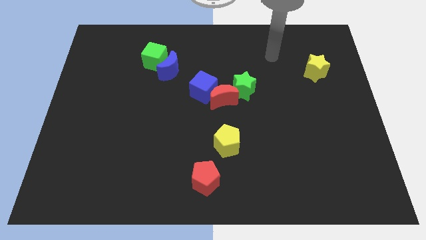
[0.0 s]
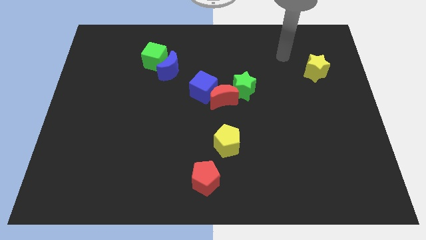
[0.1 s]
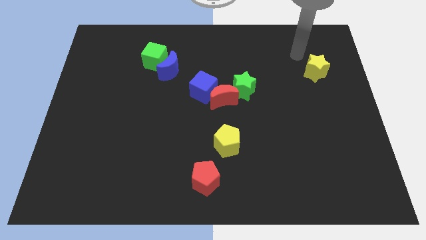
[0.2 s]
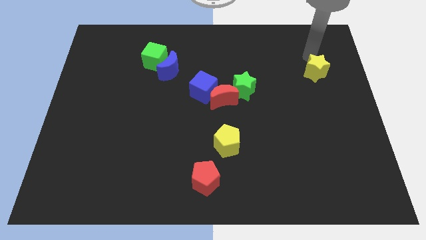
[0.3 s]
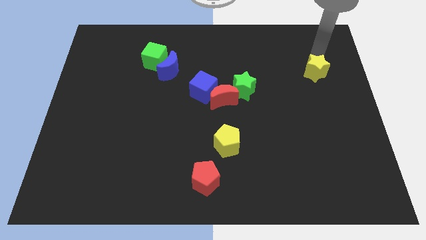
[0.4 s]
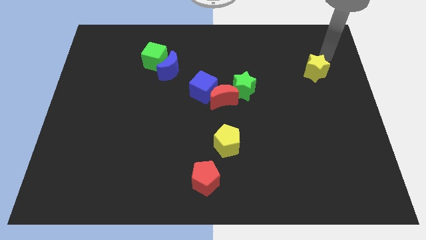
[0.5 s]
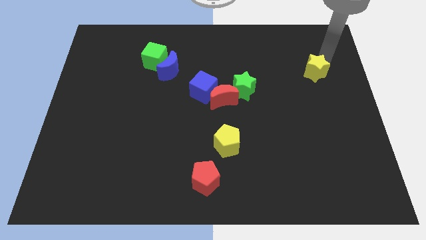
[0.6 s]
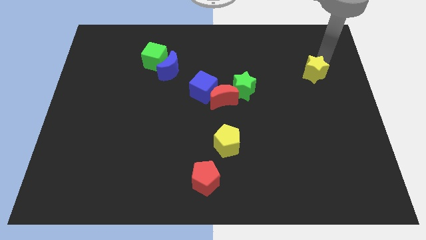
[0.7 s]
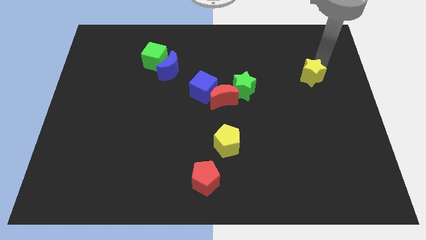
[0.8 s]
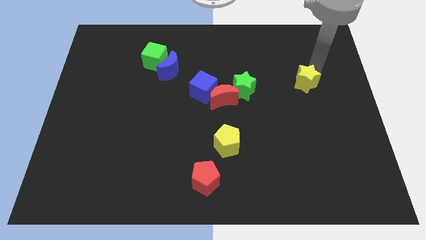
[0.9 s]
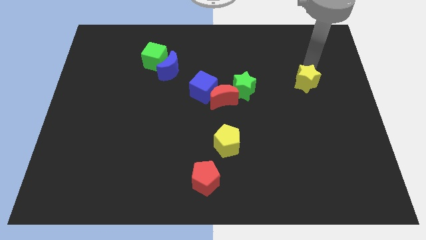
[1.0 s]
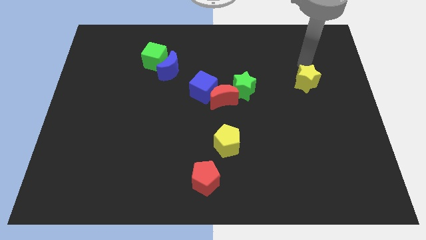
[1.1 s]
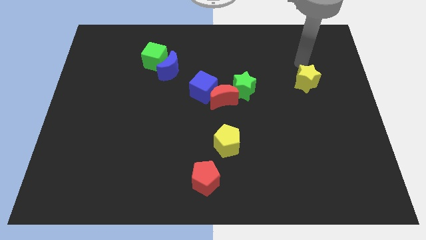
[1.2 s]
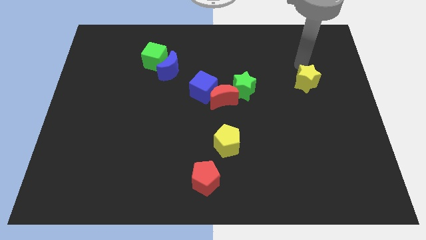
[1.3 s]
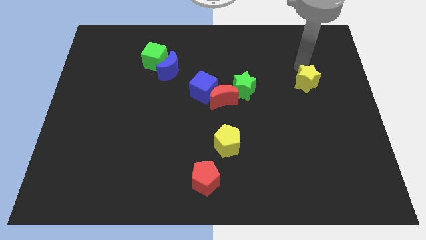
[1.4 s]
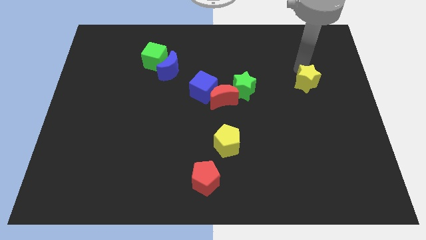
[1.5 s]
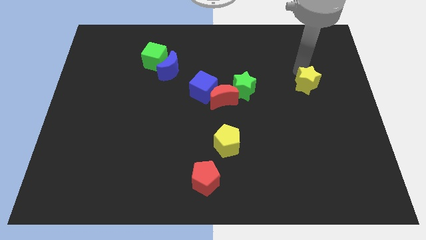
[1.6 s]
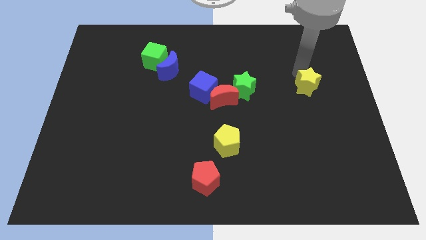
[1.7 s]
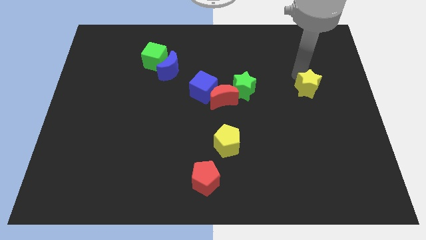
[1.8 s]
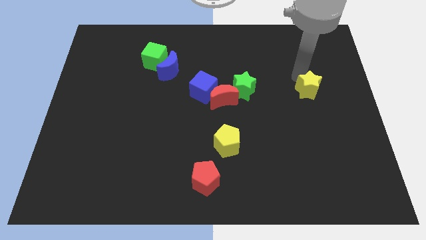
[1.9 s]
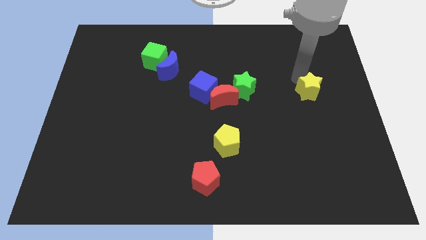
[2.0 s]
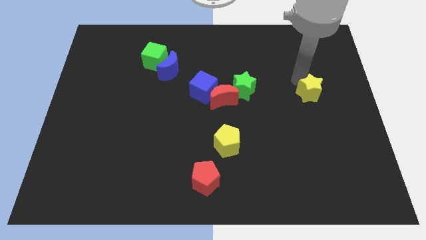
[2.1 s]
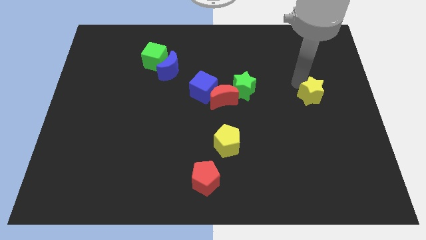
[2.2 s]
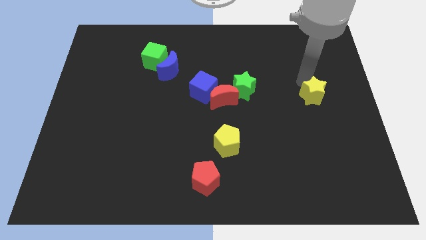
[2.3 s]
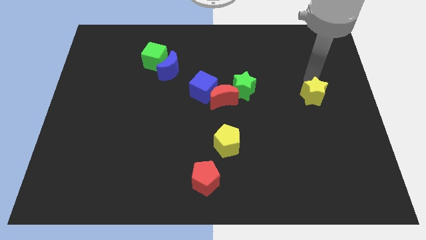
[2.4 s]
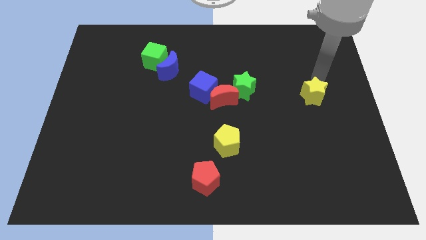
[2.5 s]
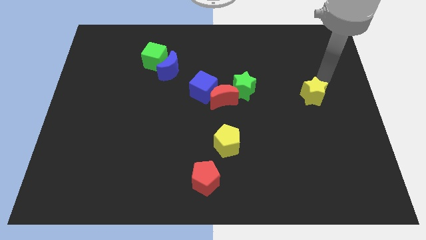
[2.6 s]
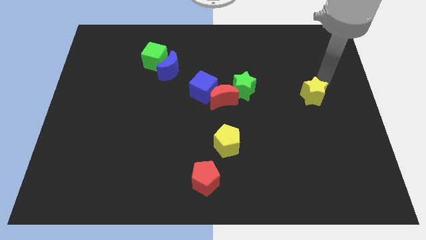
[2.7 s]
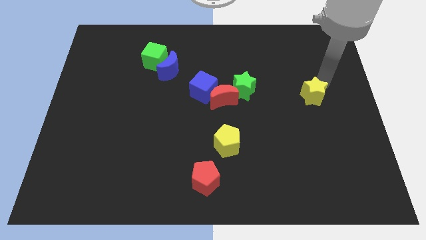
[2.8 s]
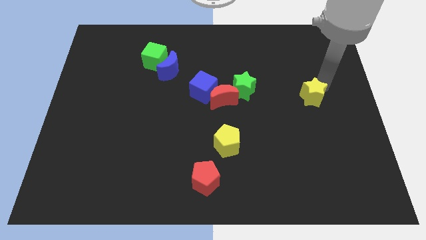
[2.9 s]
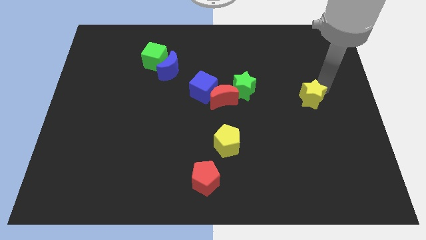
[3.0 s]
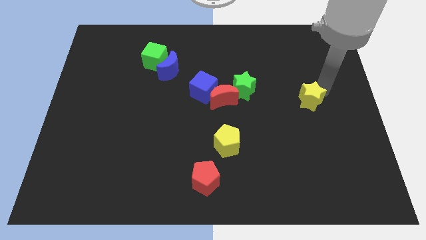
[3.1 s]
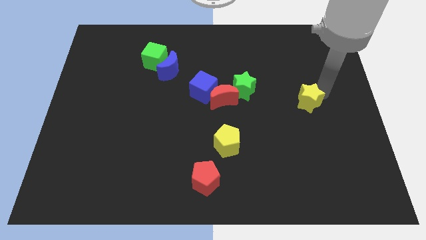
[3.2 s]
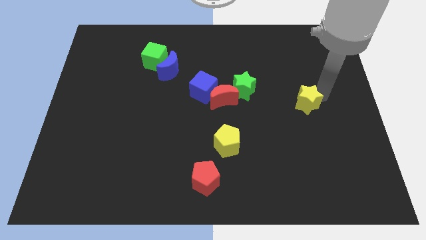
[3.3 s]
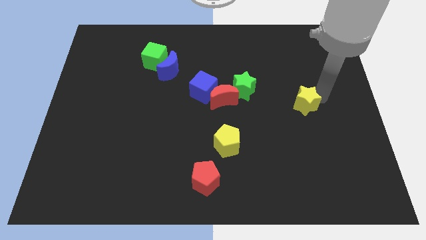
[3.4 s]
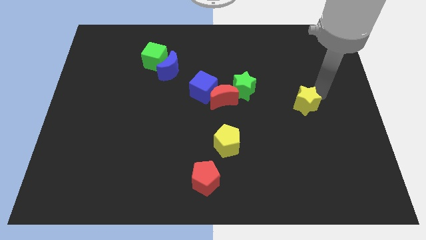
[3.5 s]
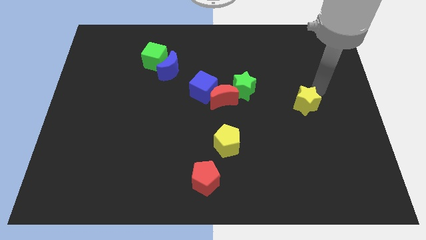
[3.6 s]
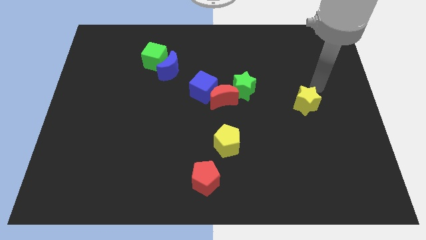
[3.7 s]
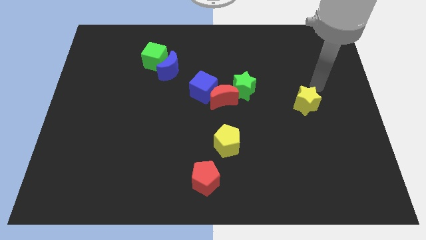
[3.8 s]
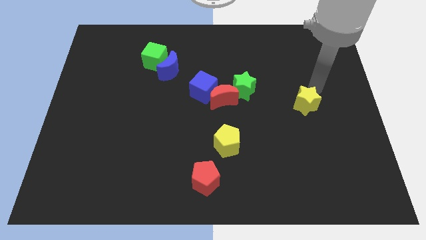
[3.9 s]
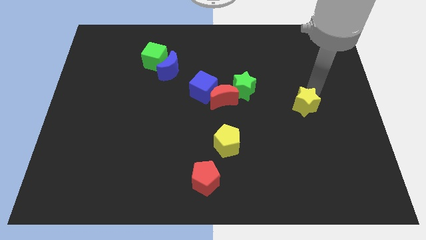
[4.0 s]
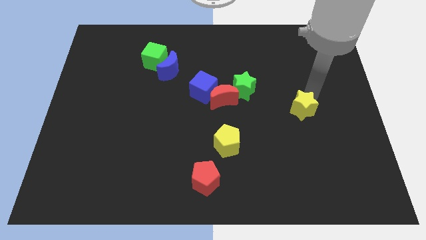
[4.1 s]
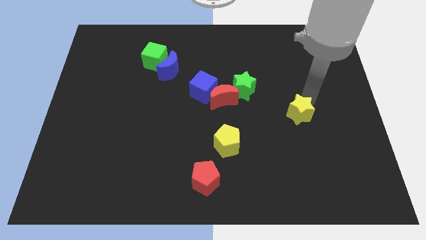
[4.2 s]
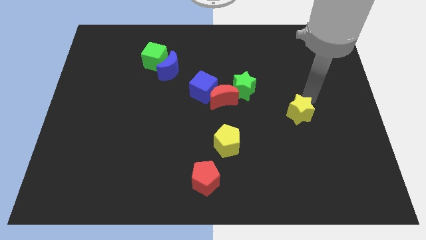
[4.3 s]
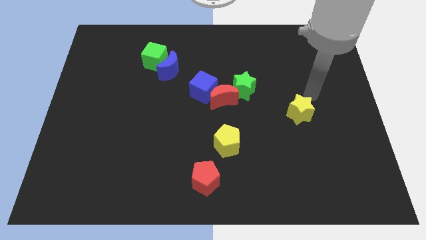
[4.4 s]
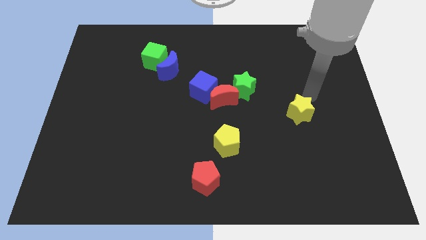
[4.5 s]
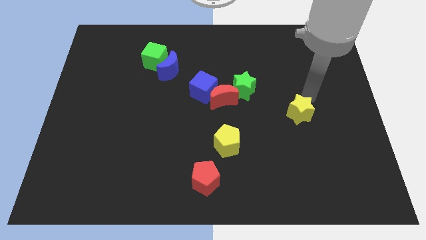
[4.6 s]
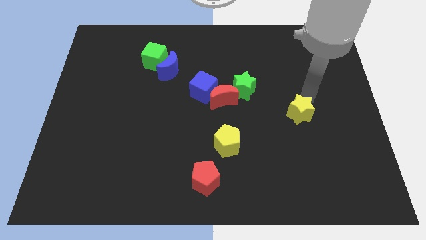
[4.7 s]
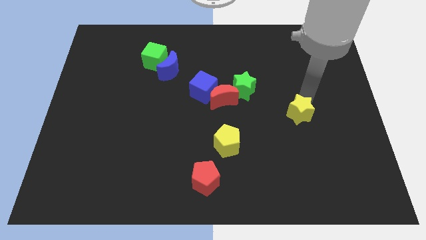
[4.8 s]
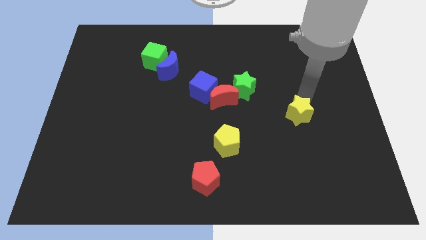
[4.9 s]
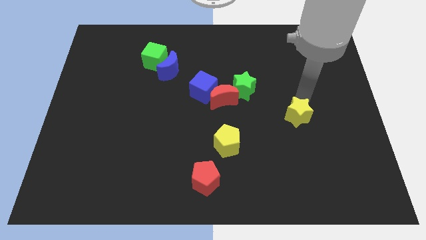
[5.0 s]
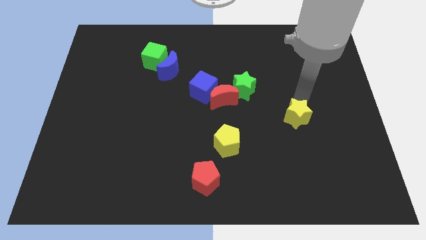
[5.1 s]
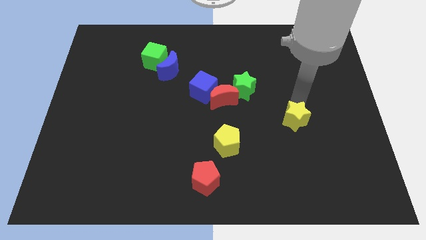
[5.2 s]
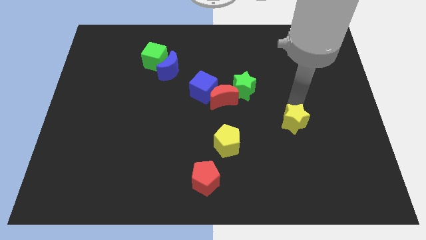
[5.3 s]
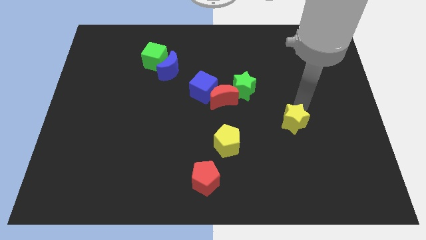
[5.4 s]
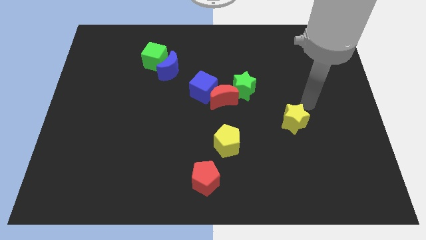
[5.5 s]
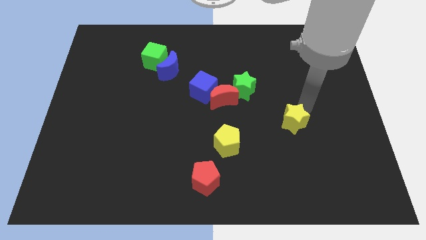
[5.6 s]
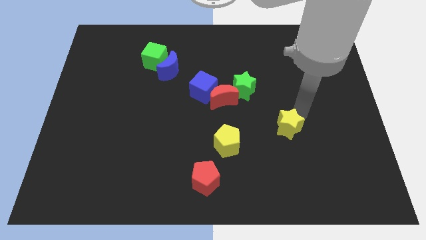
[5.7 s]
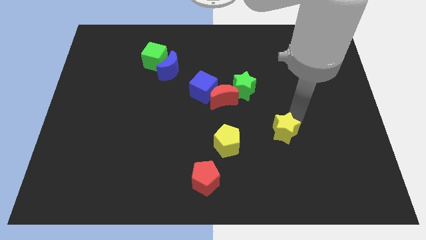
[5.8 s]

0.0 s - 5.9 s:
put the yellow star to the right side of the yellow pentagon
